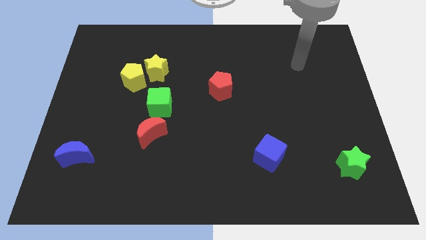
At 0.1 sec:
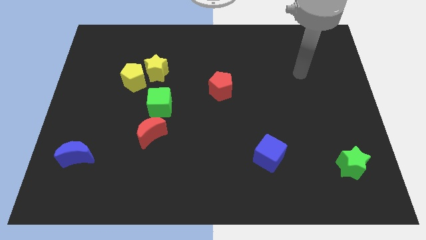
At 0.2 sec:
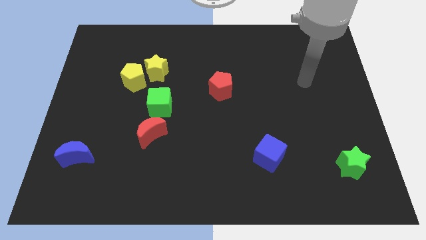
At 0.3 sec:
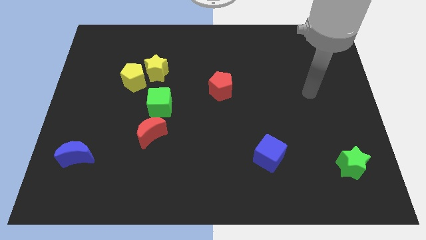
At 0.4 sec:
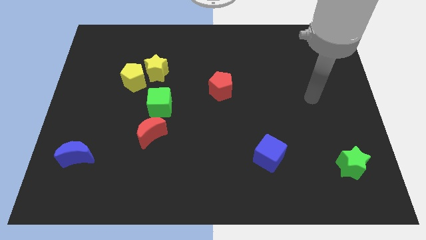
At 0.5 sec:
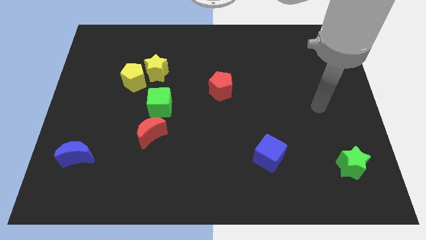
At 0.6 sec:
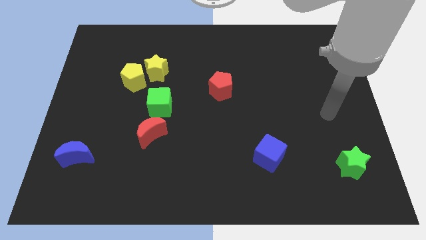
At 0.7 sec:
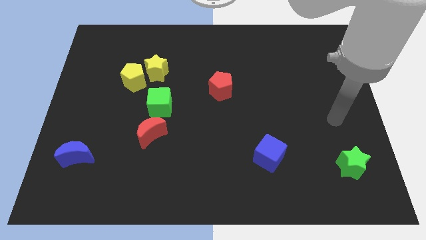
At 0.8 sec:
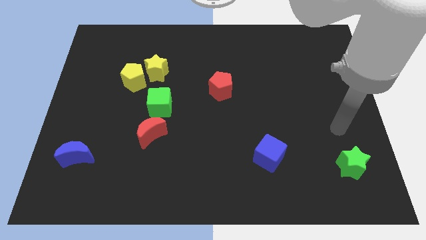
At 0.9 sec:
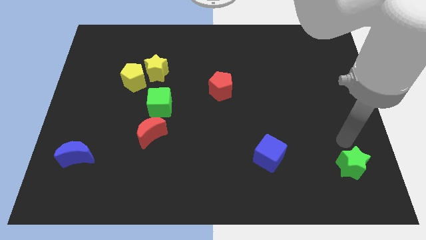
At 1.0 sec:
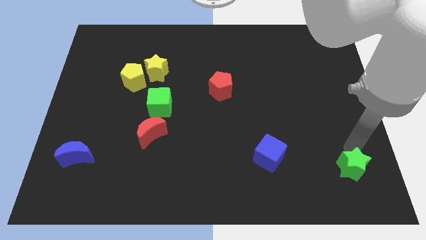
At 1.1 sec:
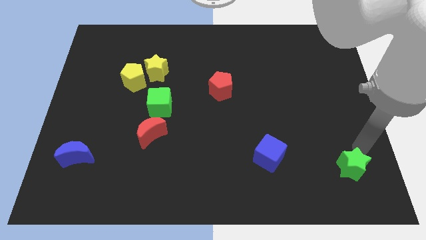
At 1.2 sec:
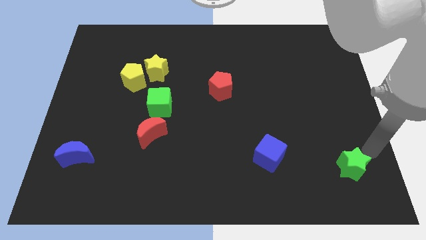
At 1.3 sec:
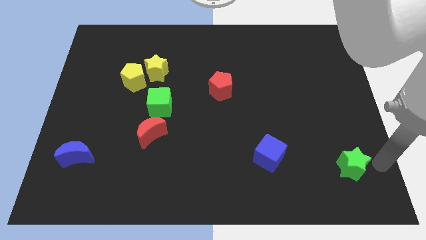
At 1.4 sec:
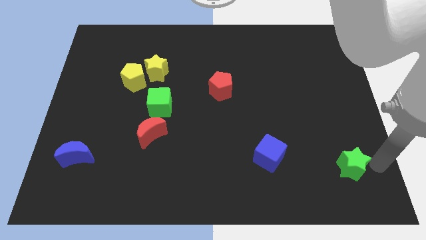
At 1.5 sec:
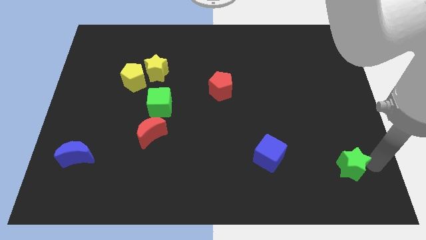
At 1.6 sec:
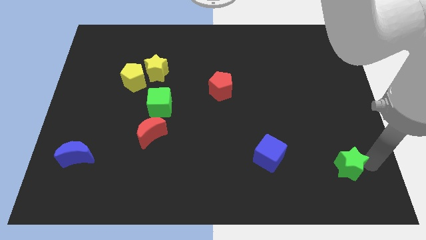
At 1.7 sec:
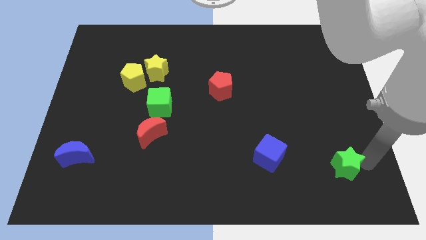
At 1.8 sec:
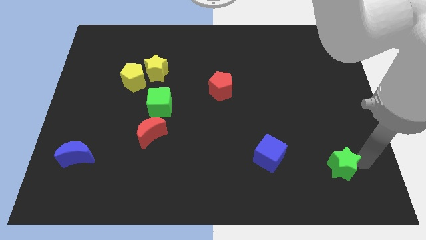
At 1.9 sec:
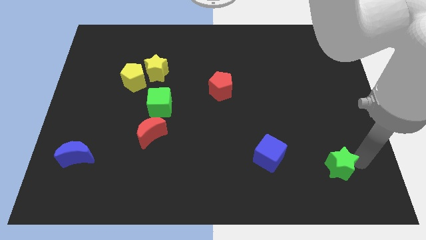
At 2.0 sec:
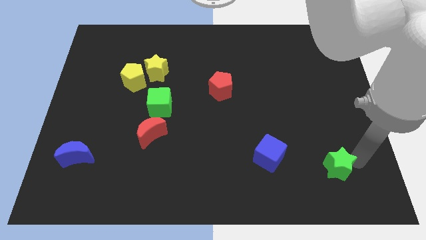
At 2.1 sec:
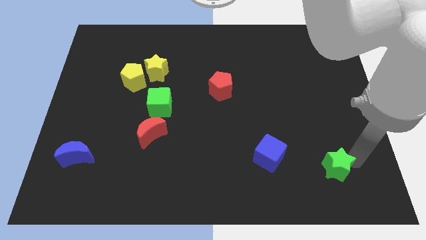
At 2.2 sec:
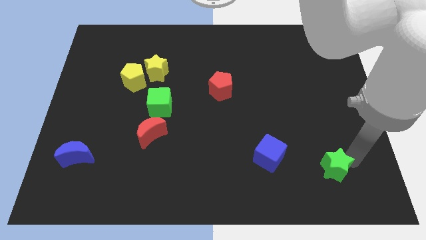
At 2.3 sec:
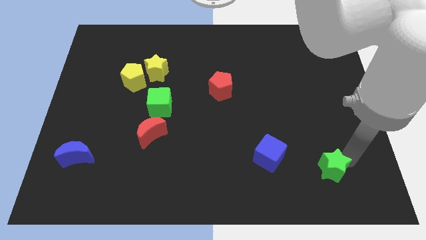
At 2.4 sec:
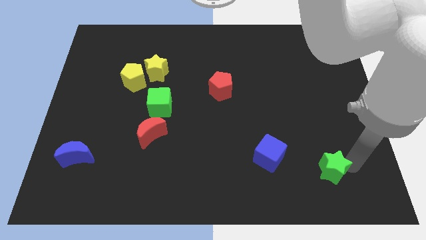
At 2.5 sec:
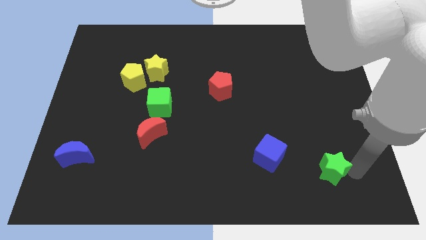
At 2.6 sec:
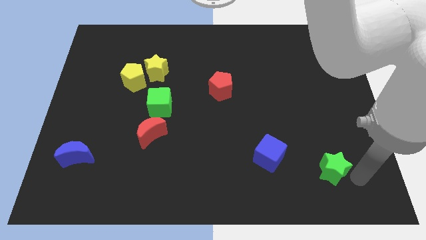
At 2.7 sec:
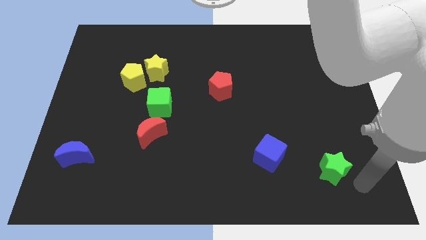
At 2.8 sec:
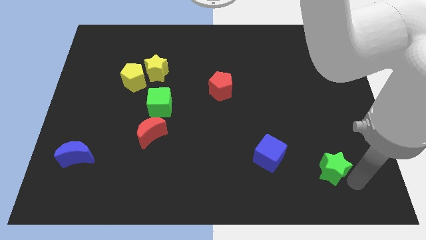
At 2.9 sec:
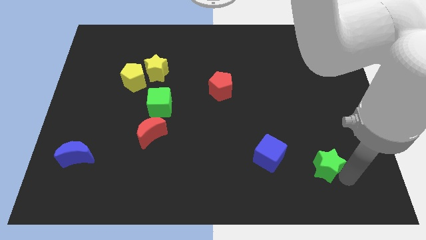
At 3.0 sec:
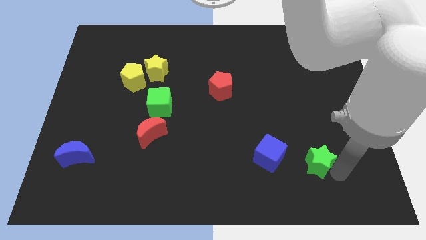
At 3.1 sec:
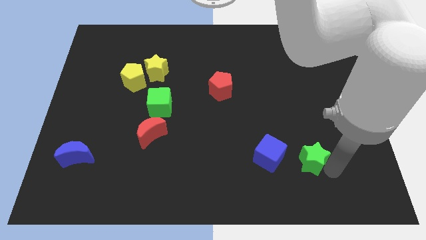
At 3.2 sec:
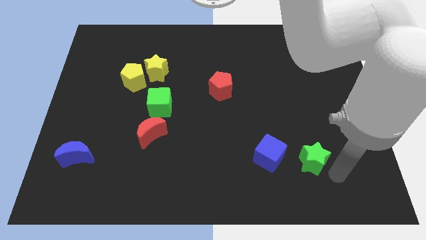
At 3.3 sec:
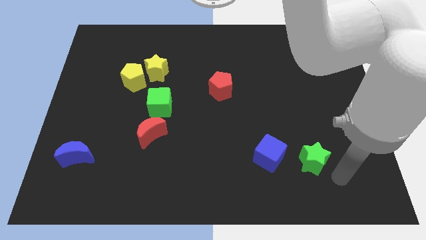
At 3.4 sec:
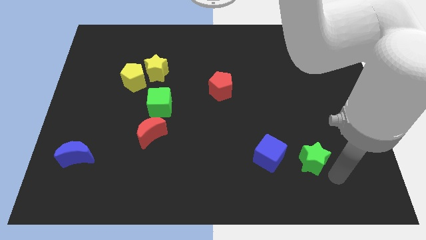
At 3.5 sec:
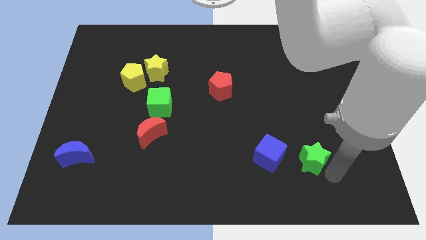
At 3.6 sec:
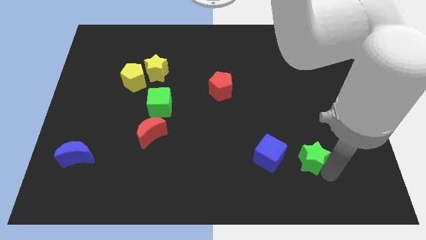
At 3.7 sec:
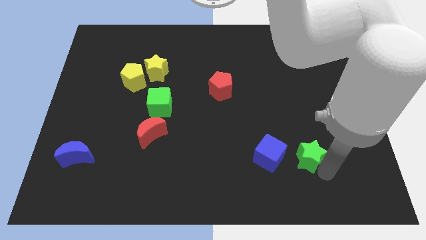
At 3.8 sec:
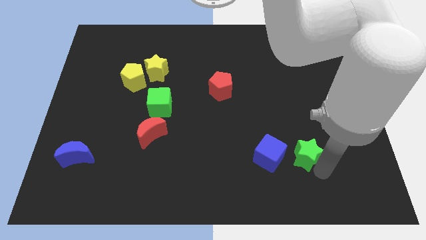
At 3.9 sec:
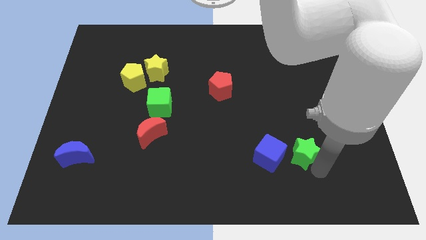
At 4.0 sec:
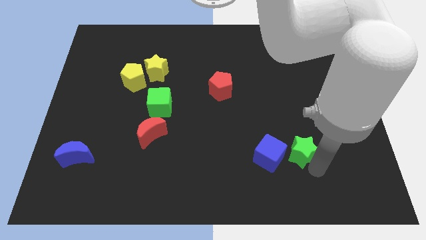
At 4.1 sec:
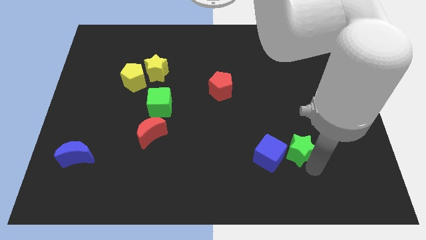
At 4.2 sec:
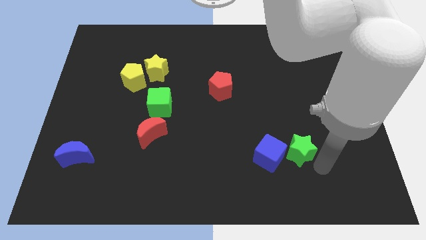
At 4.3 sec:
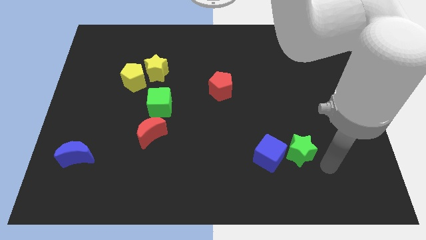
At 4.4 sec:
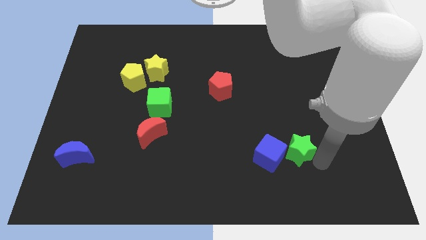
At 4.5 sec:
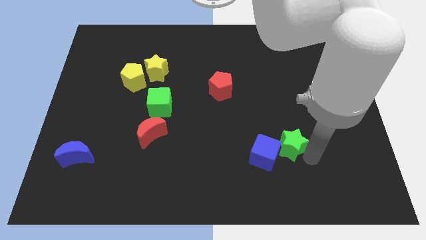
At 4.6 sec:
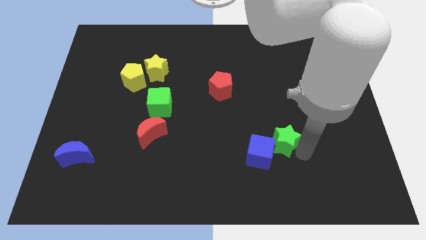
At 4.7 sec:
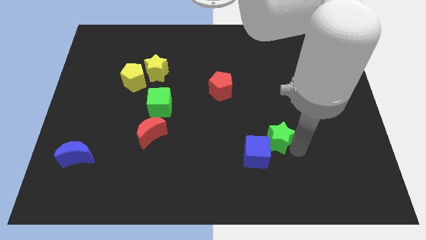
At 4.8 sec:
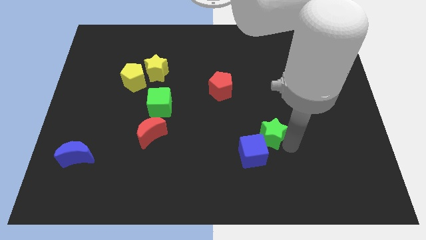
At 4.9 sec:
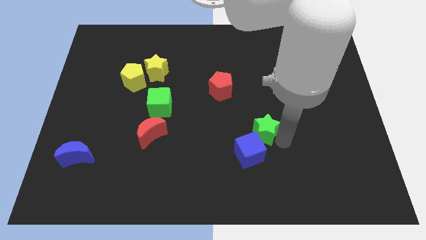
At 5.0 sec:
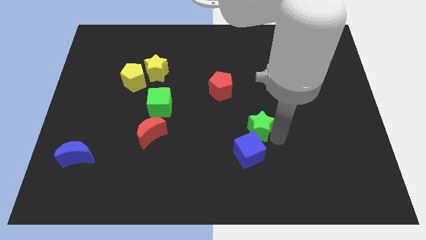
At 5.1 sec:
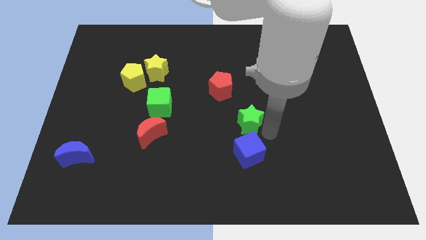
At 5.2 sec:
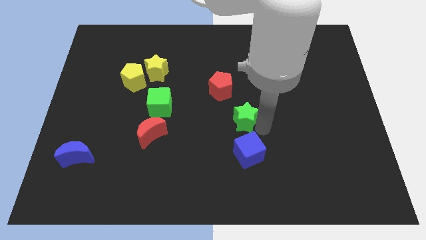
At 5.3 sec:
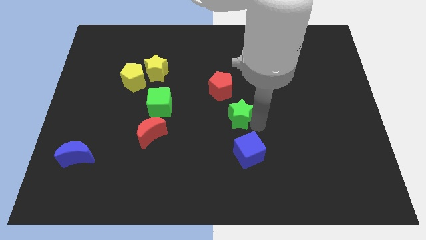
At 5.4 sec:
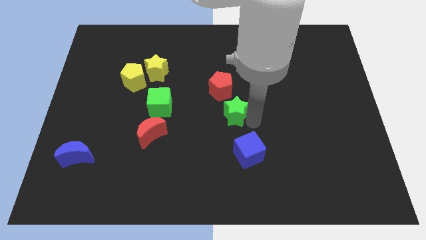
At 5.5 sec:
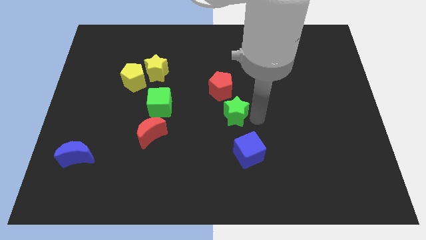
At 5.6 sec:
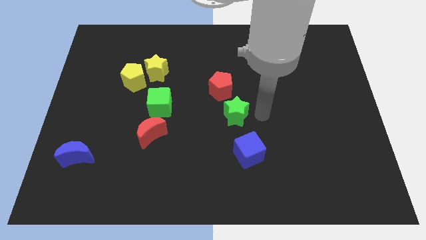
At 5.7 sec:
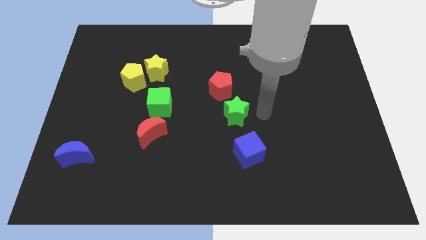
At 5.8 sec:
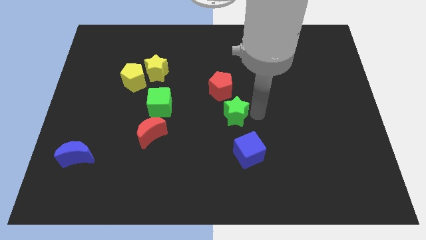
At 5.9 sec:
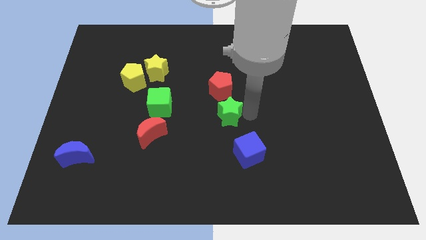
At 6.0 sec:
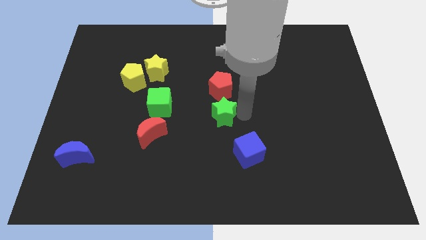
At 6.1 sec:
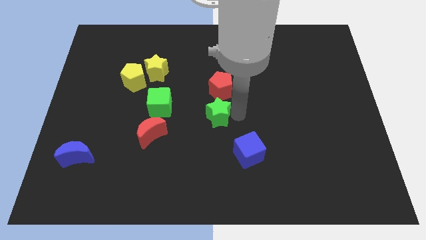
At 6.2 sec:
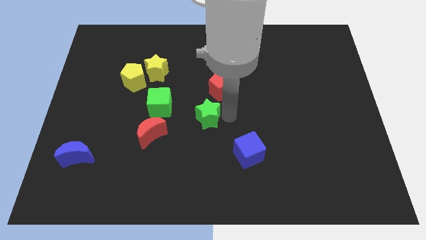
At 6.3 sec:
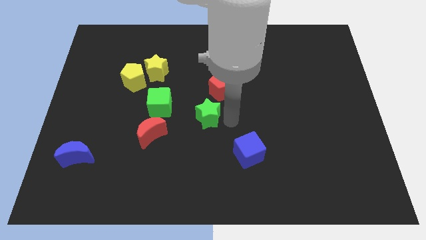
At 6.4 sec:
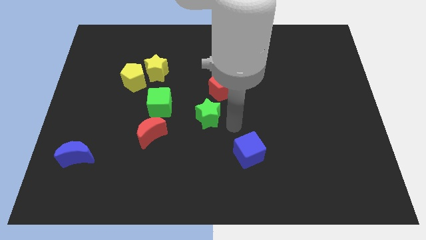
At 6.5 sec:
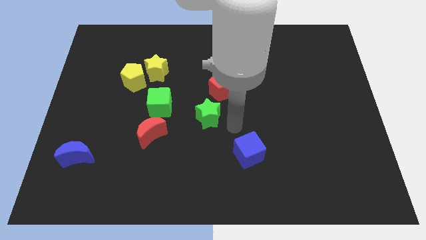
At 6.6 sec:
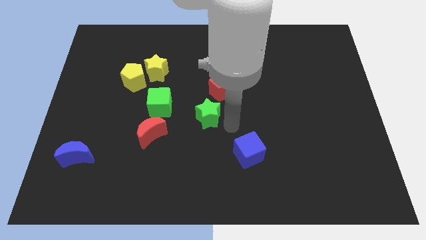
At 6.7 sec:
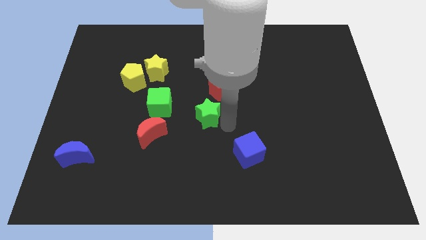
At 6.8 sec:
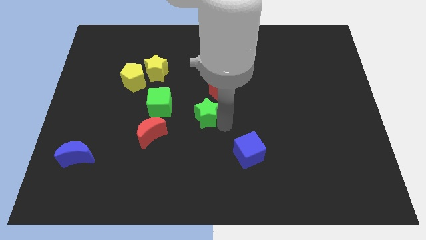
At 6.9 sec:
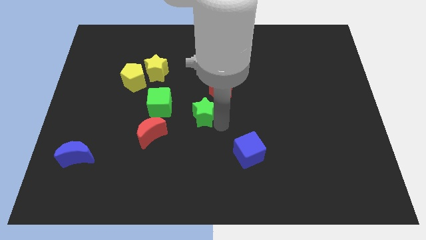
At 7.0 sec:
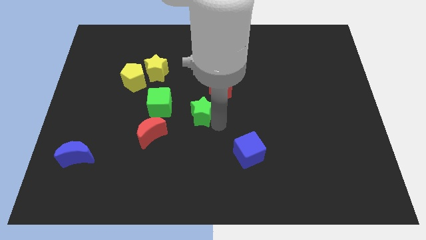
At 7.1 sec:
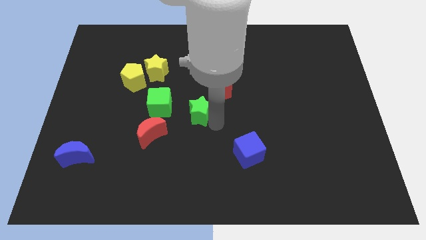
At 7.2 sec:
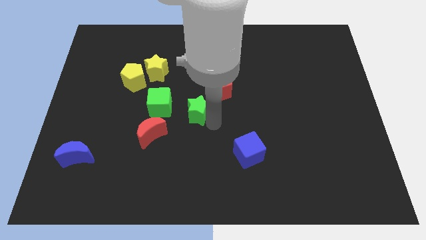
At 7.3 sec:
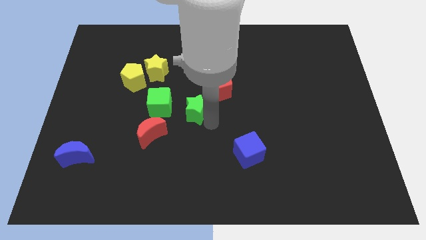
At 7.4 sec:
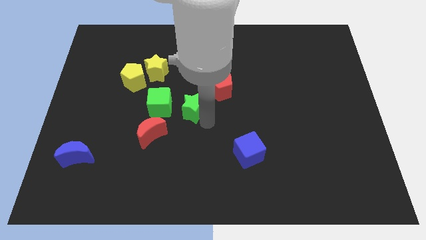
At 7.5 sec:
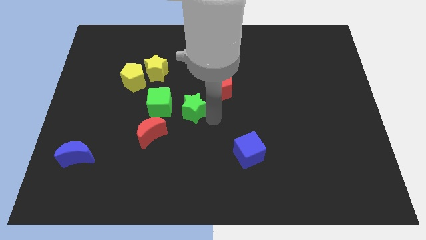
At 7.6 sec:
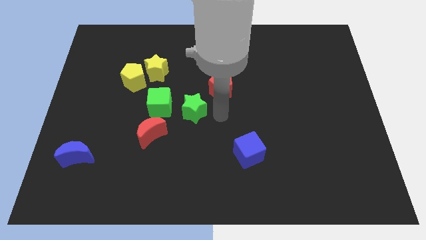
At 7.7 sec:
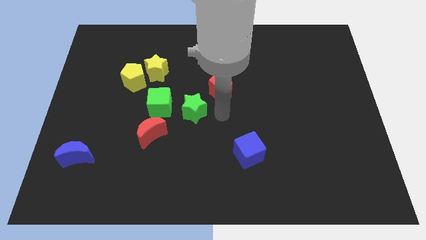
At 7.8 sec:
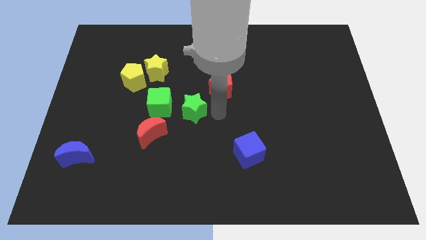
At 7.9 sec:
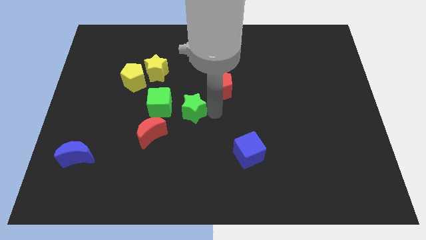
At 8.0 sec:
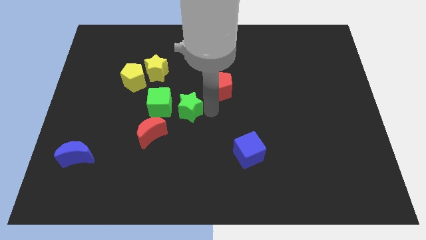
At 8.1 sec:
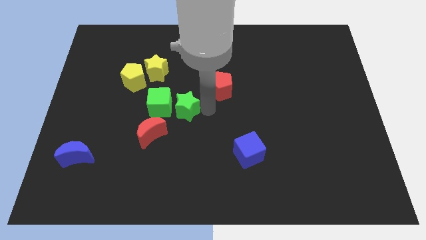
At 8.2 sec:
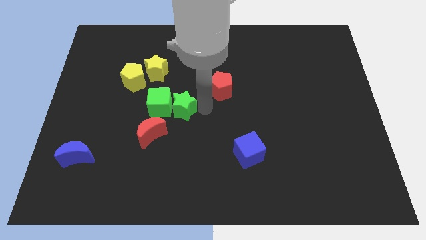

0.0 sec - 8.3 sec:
put the green star next to the green cube
